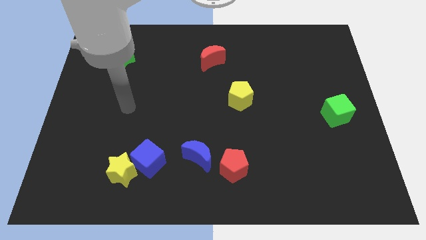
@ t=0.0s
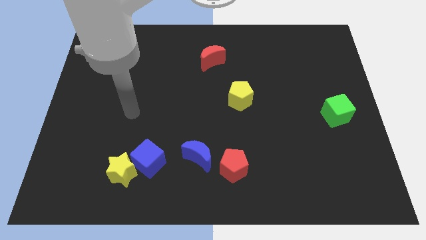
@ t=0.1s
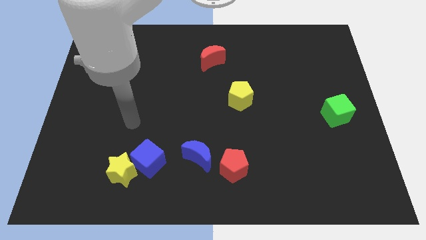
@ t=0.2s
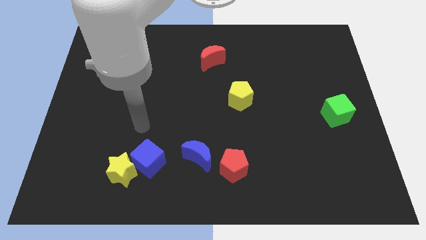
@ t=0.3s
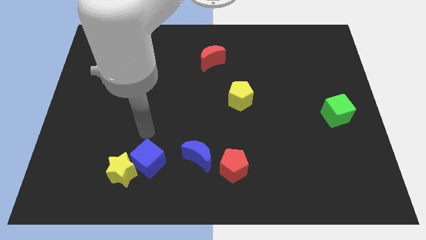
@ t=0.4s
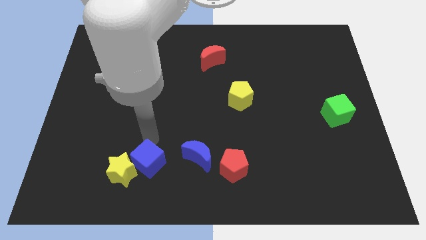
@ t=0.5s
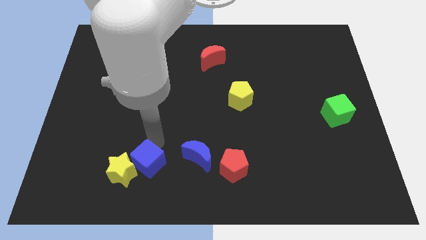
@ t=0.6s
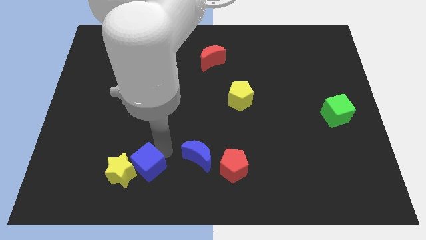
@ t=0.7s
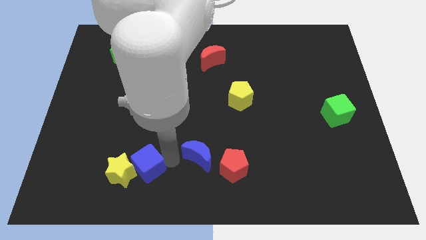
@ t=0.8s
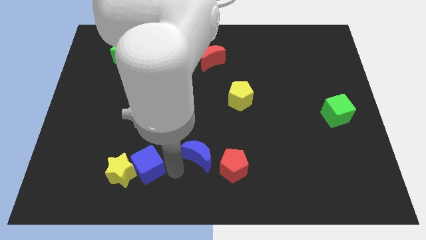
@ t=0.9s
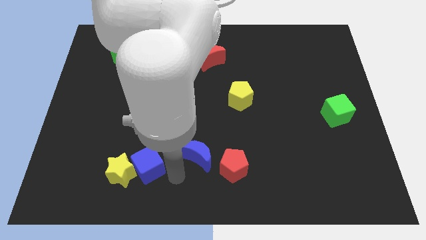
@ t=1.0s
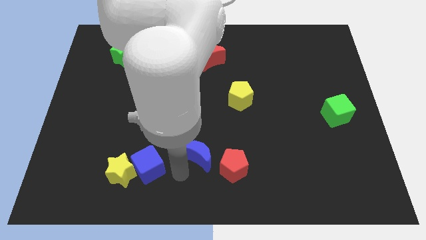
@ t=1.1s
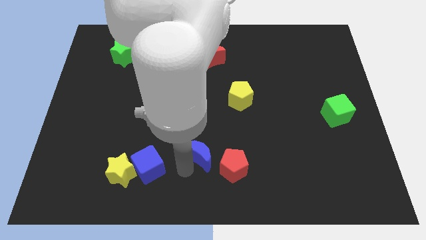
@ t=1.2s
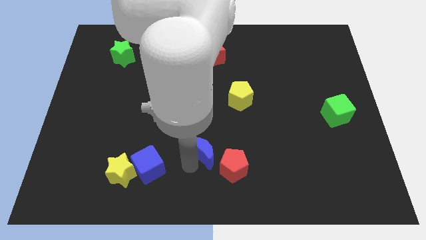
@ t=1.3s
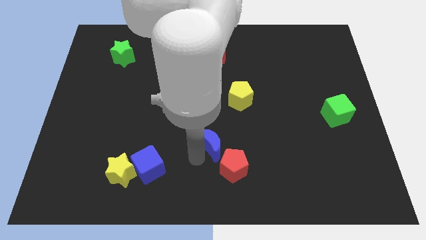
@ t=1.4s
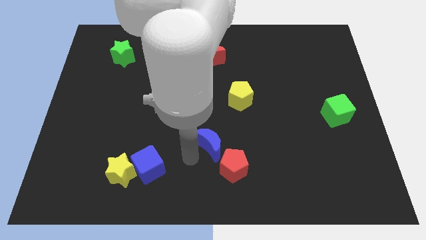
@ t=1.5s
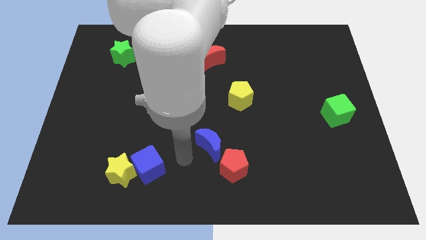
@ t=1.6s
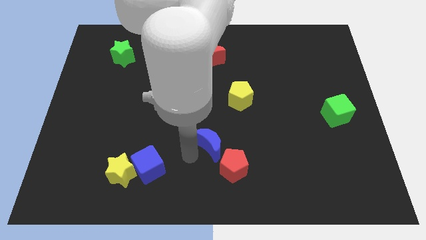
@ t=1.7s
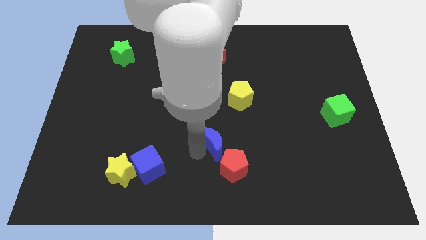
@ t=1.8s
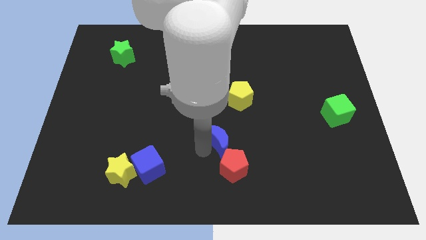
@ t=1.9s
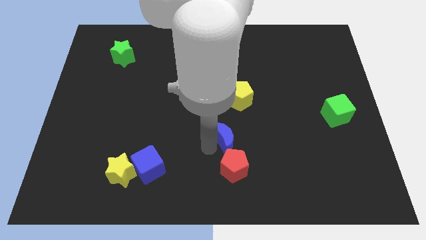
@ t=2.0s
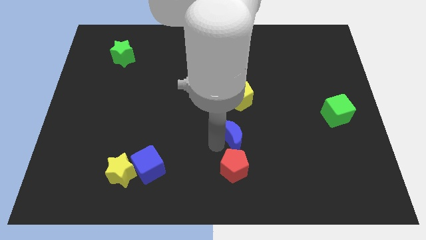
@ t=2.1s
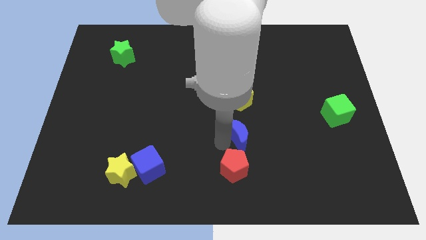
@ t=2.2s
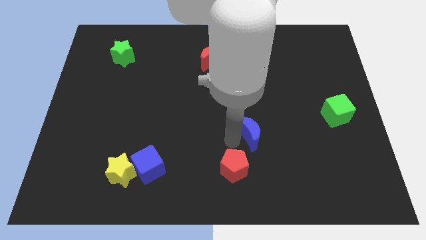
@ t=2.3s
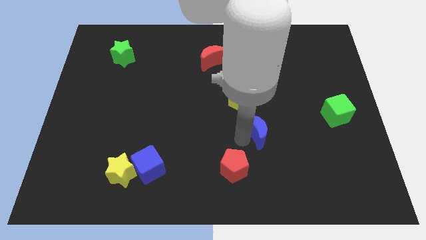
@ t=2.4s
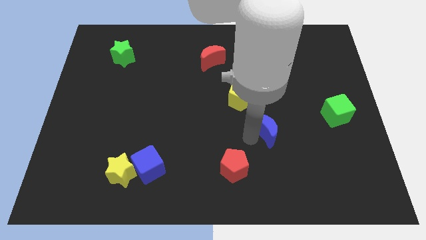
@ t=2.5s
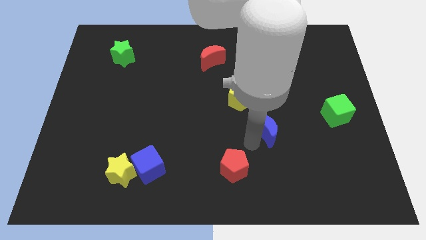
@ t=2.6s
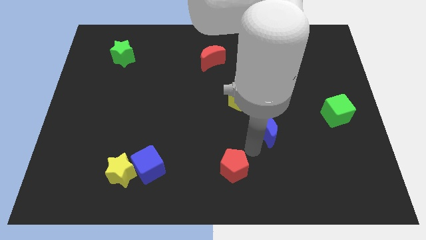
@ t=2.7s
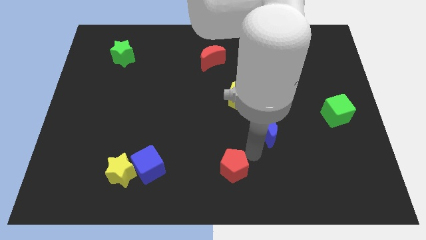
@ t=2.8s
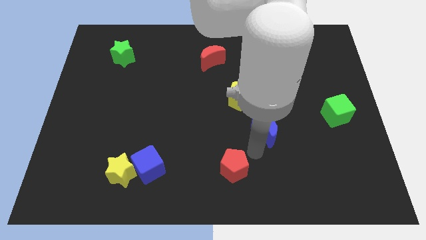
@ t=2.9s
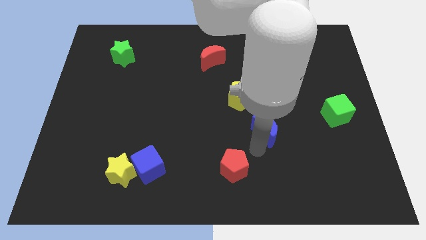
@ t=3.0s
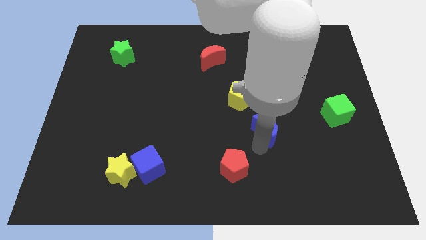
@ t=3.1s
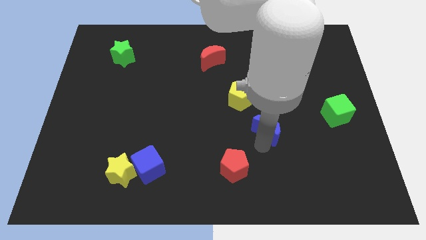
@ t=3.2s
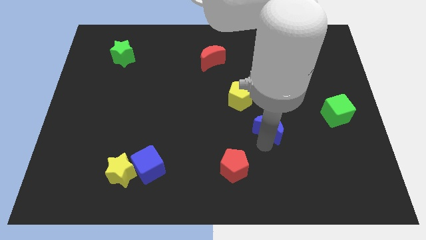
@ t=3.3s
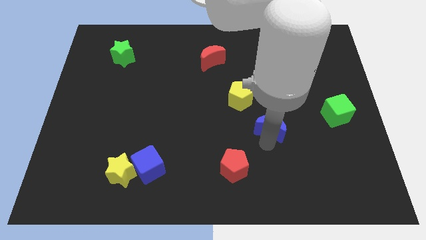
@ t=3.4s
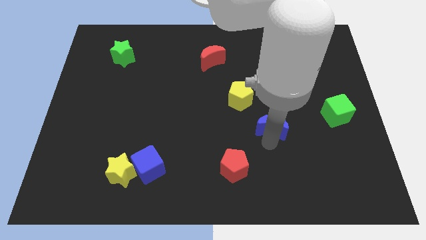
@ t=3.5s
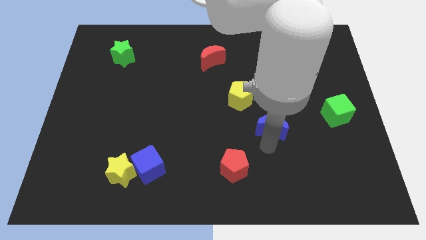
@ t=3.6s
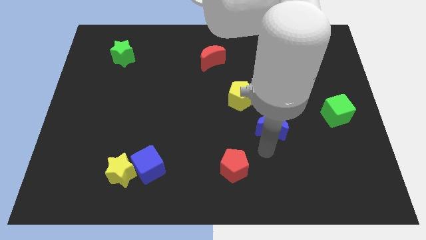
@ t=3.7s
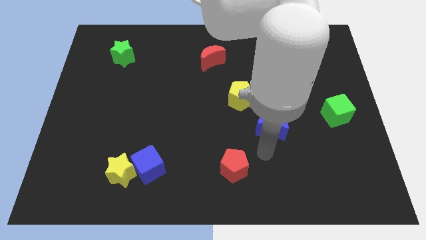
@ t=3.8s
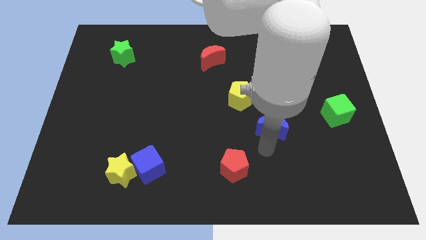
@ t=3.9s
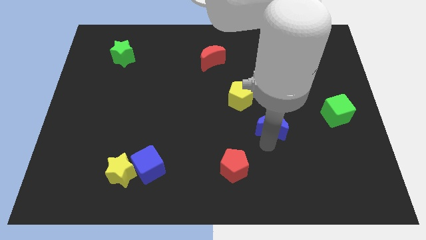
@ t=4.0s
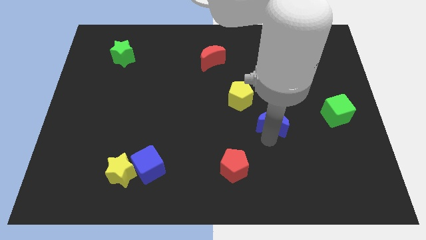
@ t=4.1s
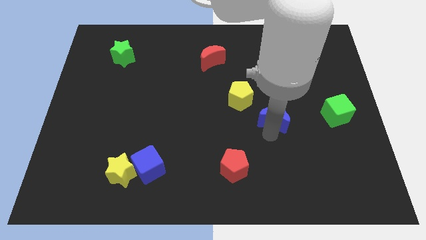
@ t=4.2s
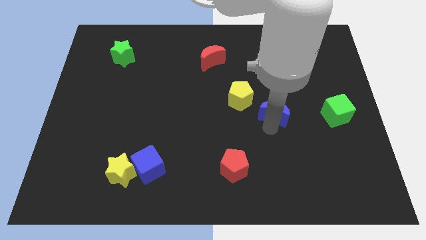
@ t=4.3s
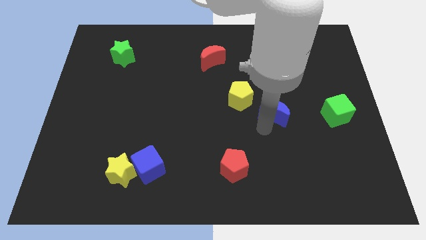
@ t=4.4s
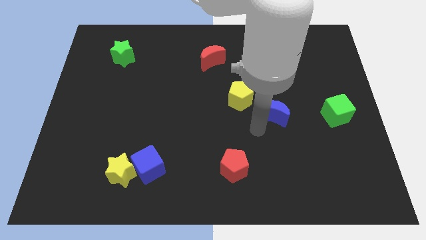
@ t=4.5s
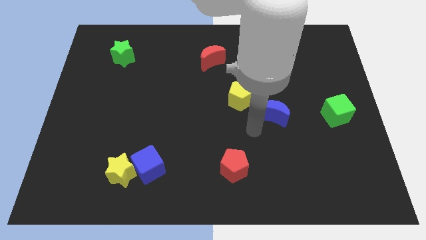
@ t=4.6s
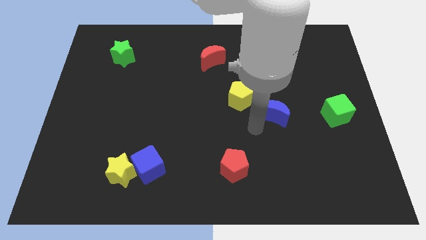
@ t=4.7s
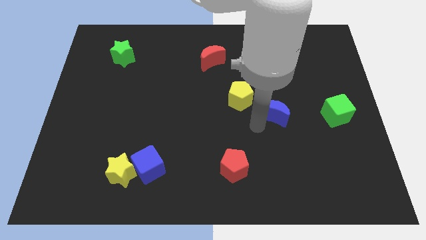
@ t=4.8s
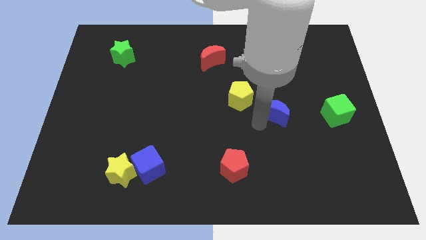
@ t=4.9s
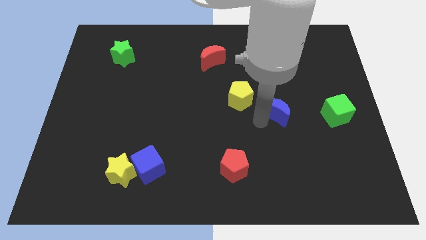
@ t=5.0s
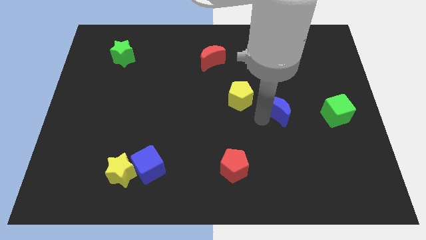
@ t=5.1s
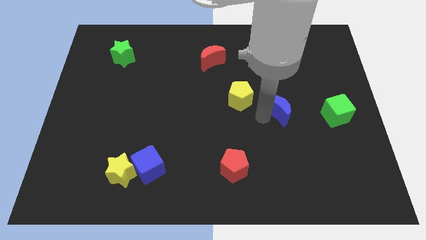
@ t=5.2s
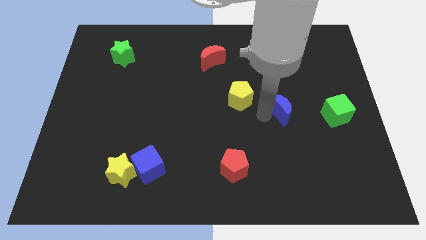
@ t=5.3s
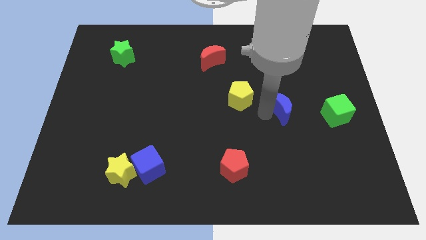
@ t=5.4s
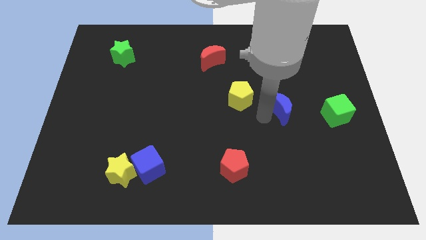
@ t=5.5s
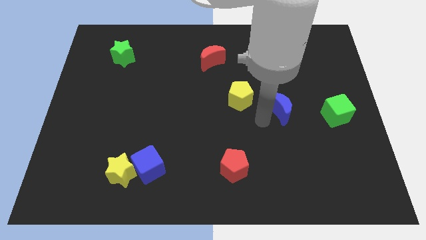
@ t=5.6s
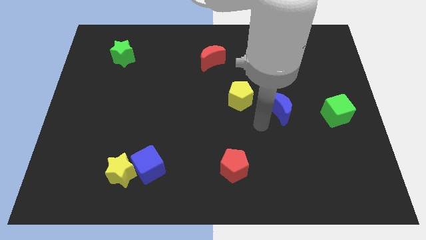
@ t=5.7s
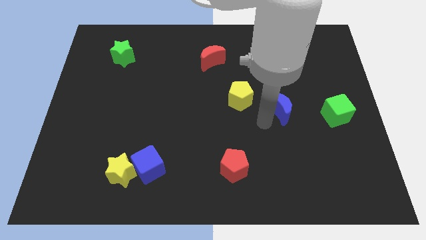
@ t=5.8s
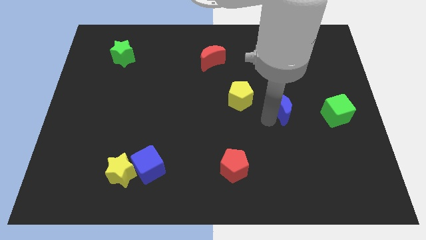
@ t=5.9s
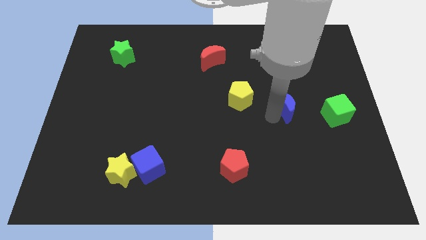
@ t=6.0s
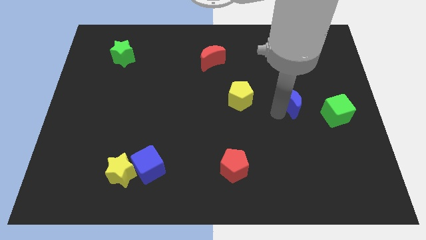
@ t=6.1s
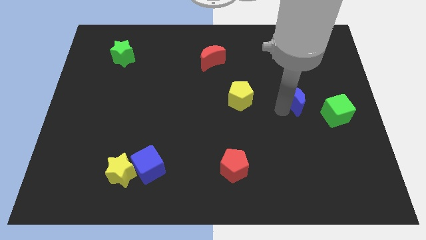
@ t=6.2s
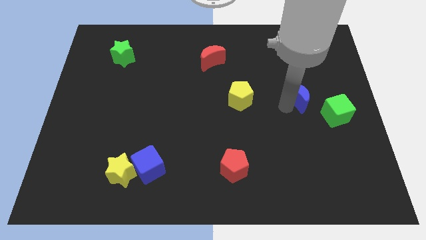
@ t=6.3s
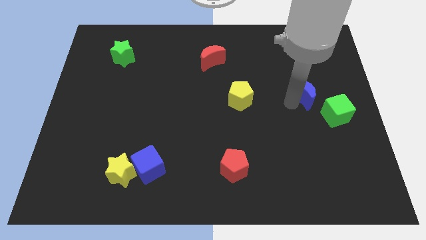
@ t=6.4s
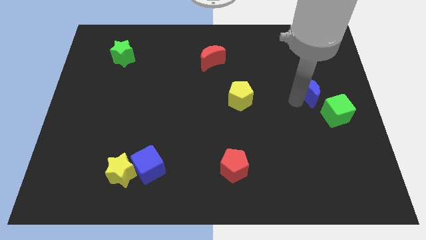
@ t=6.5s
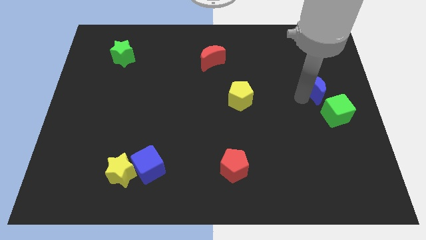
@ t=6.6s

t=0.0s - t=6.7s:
push the blue moon to the top side of the green cube

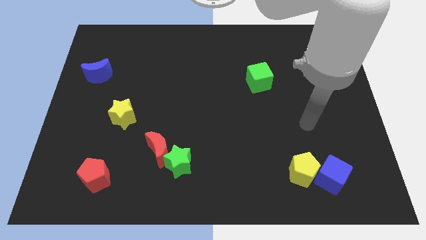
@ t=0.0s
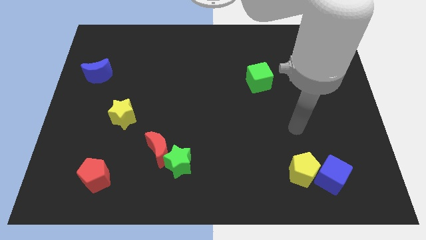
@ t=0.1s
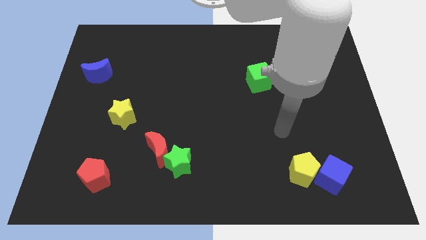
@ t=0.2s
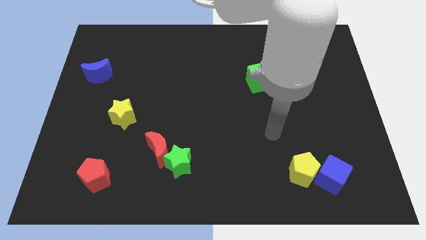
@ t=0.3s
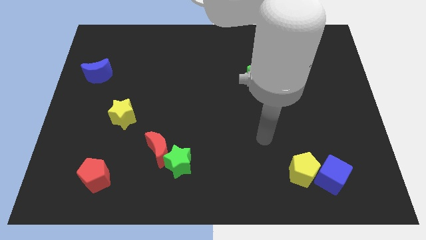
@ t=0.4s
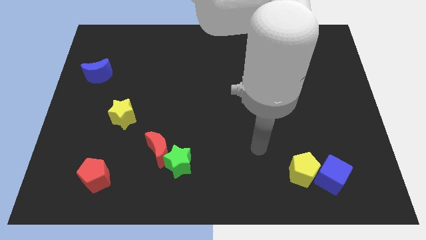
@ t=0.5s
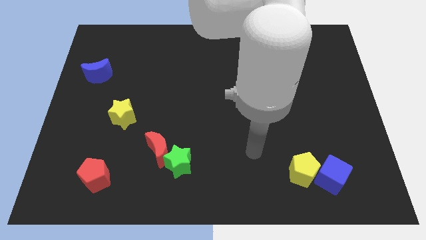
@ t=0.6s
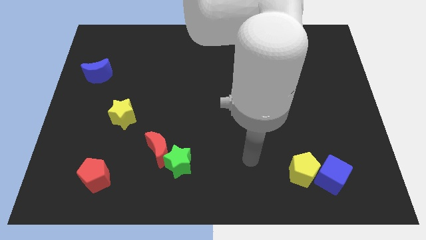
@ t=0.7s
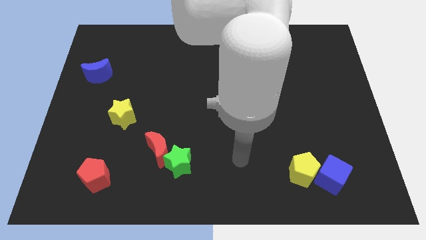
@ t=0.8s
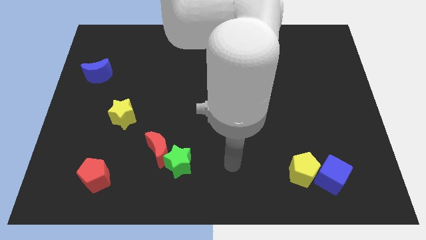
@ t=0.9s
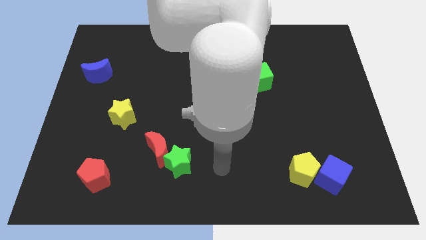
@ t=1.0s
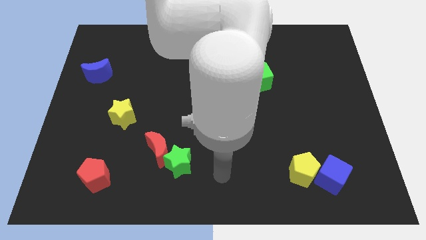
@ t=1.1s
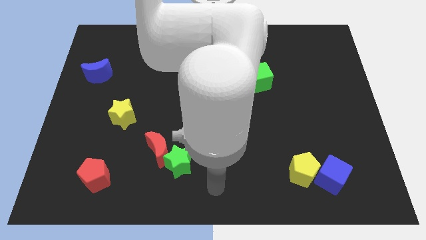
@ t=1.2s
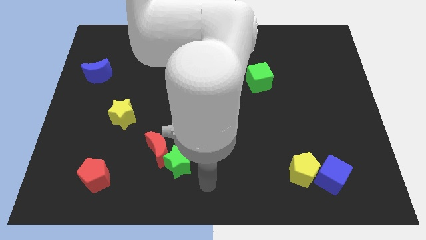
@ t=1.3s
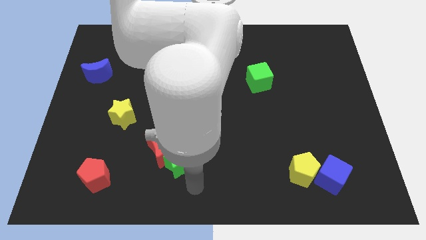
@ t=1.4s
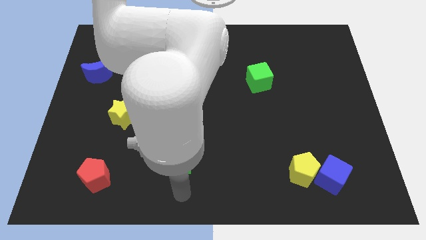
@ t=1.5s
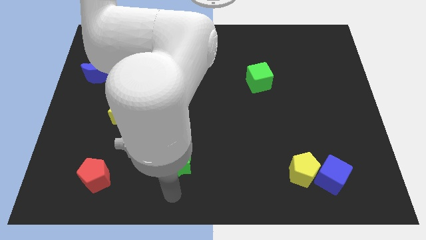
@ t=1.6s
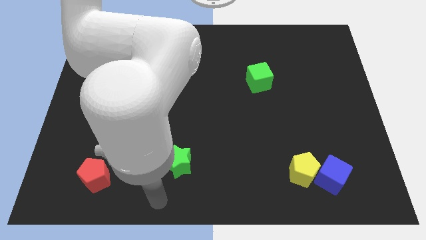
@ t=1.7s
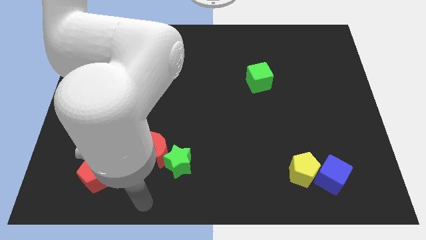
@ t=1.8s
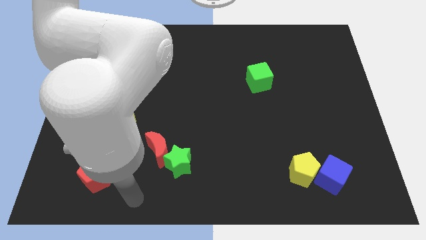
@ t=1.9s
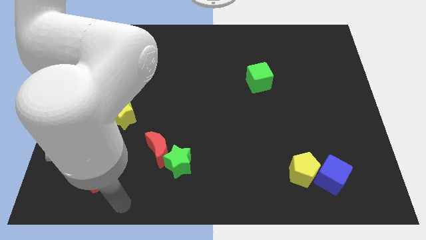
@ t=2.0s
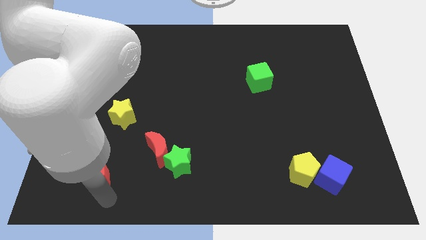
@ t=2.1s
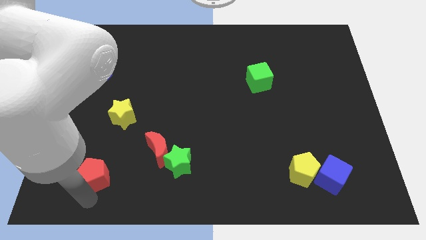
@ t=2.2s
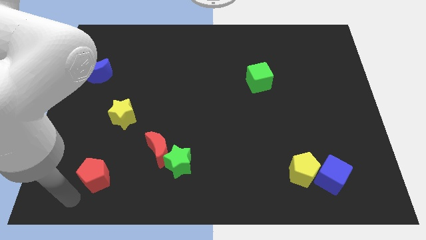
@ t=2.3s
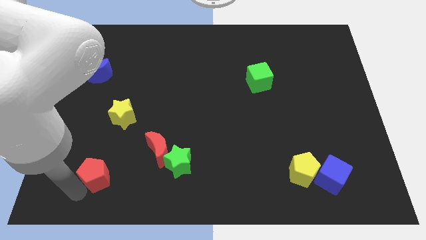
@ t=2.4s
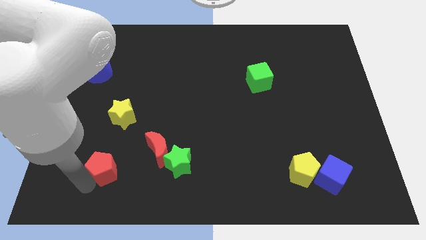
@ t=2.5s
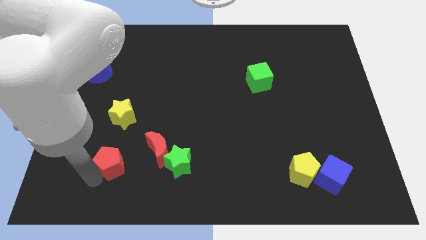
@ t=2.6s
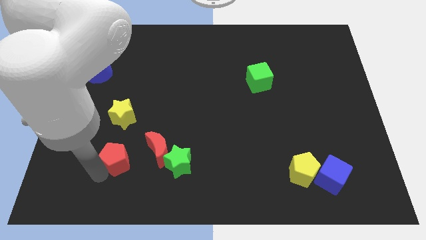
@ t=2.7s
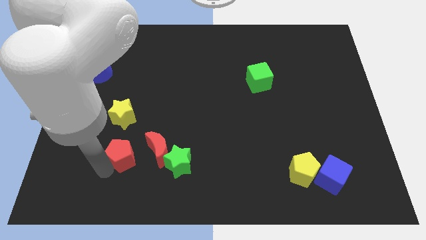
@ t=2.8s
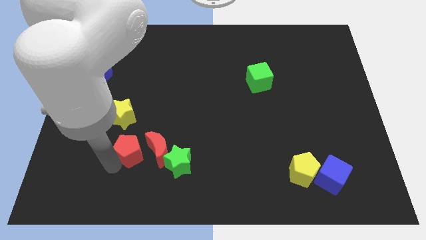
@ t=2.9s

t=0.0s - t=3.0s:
put the red pentagon diagonally up and to the left of the red moon
